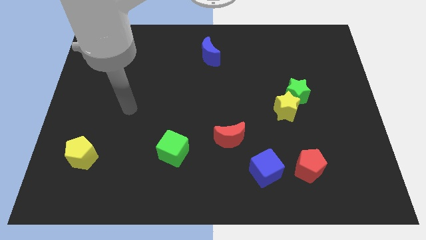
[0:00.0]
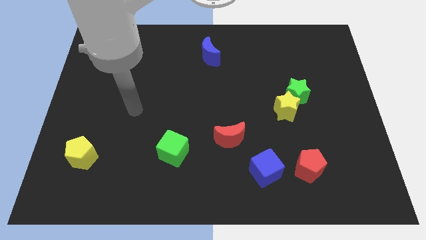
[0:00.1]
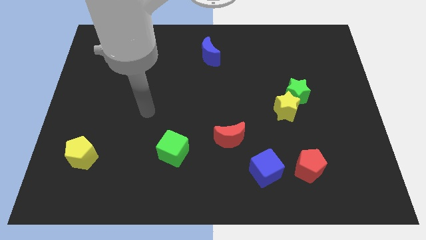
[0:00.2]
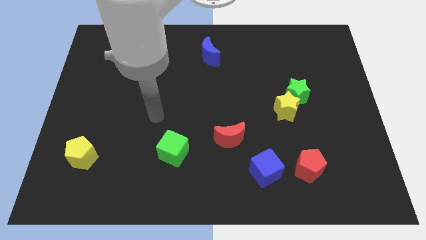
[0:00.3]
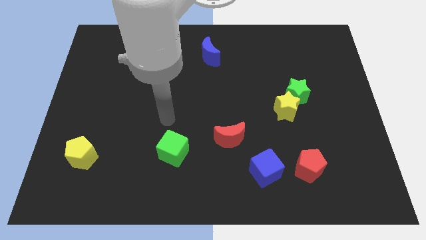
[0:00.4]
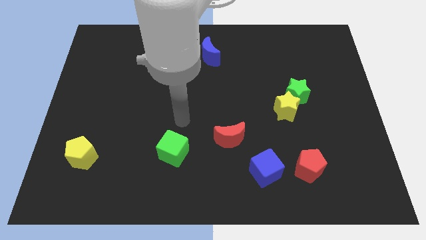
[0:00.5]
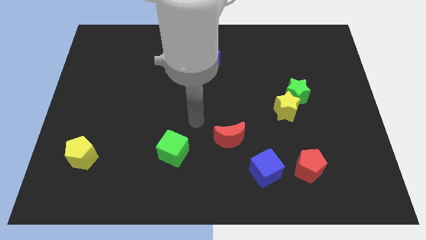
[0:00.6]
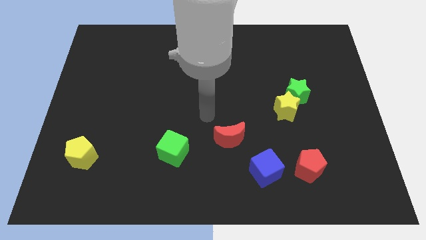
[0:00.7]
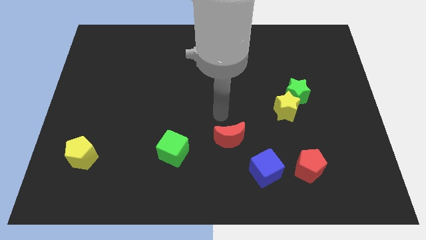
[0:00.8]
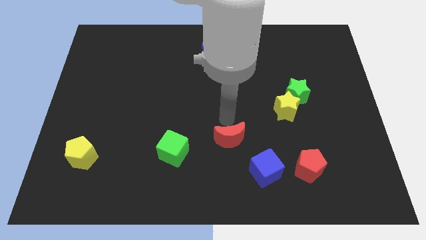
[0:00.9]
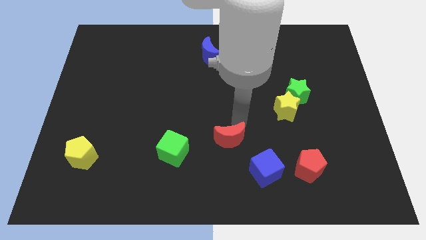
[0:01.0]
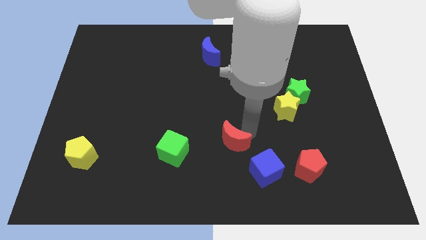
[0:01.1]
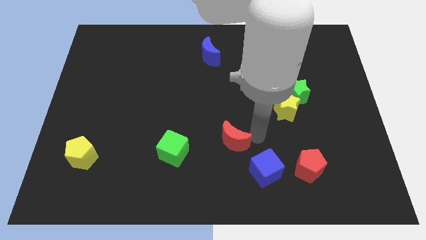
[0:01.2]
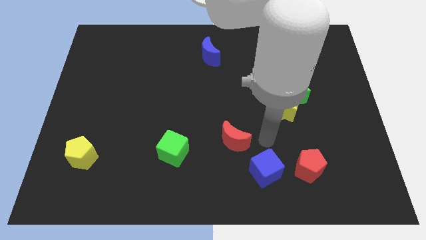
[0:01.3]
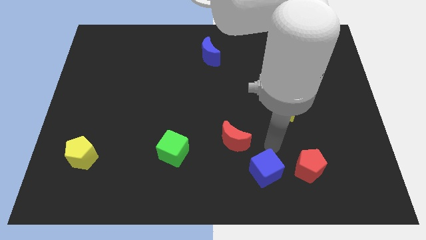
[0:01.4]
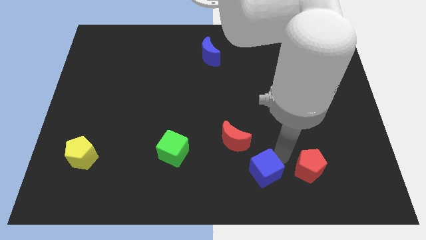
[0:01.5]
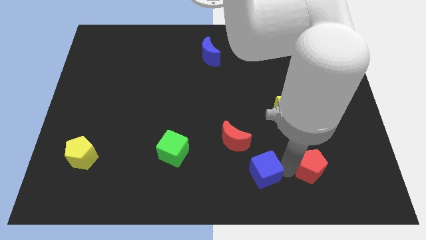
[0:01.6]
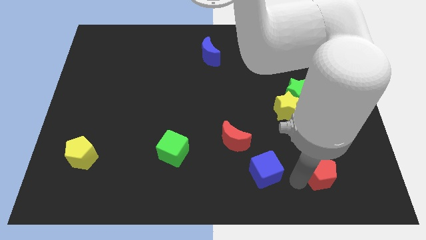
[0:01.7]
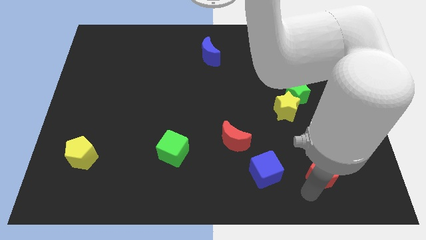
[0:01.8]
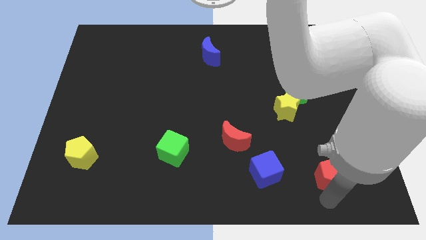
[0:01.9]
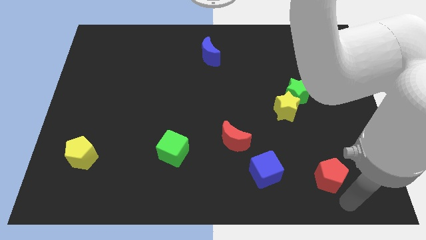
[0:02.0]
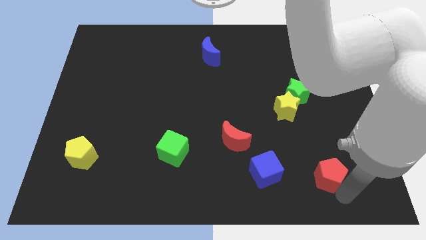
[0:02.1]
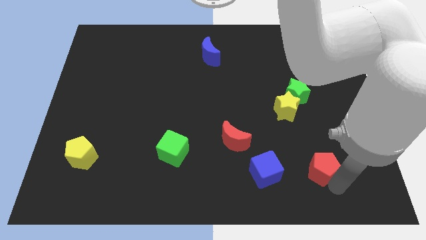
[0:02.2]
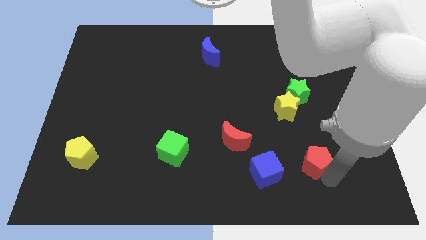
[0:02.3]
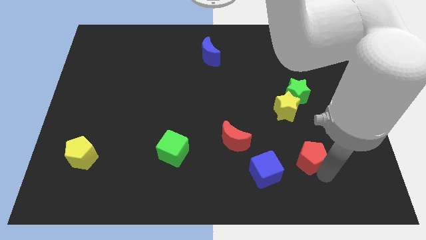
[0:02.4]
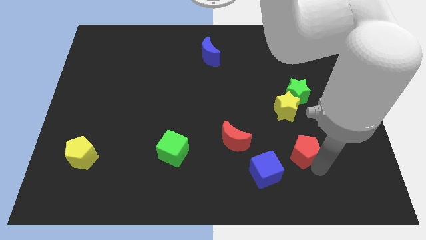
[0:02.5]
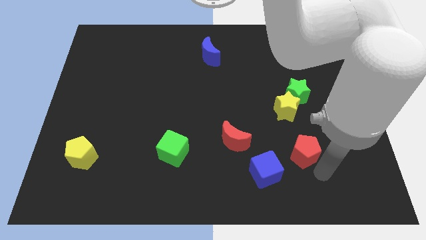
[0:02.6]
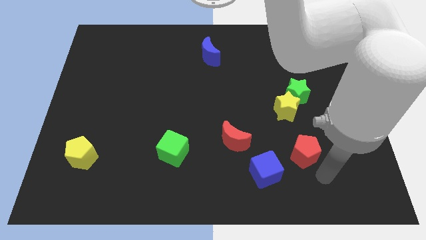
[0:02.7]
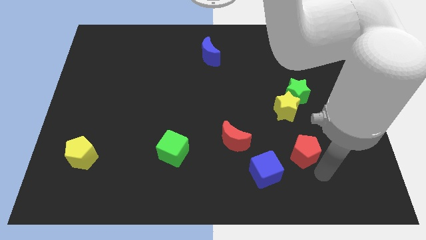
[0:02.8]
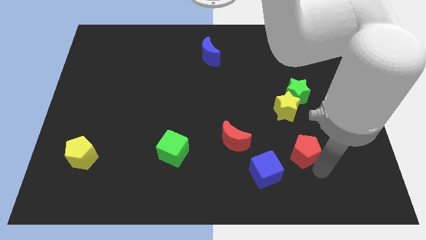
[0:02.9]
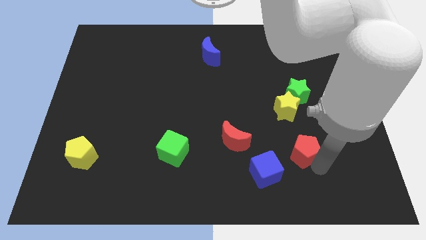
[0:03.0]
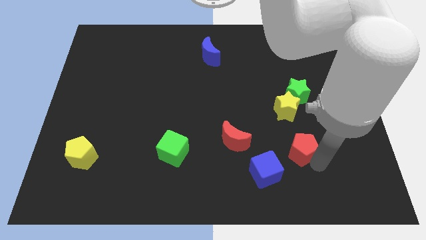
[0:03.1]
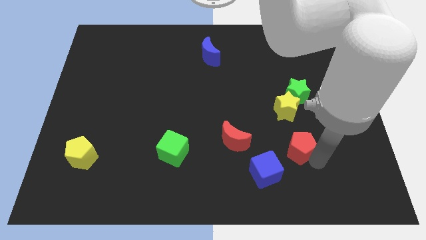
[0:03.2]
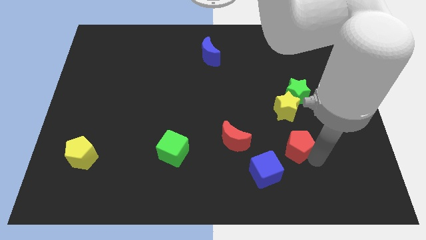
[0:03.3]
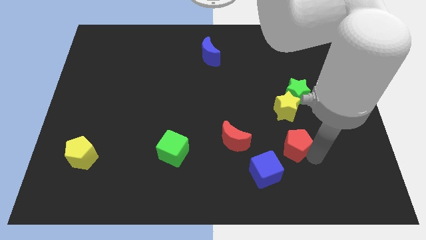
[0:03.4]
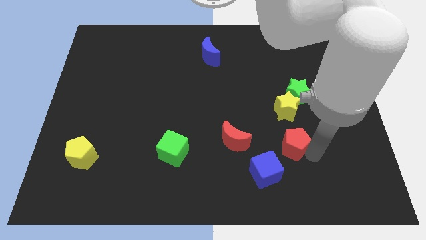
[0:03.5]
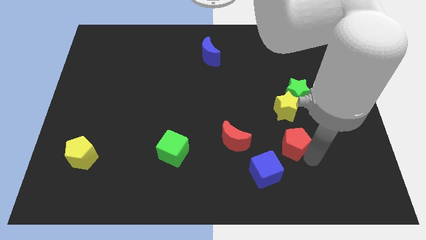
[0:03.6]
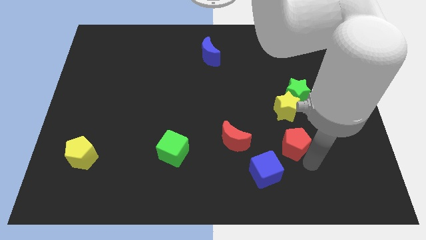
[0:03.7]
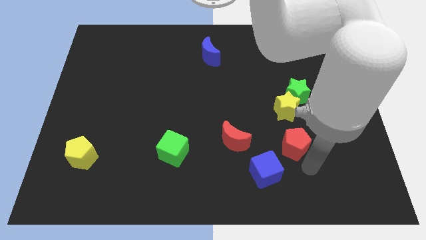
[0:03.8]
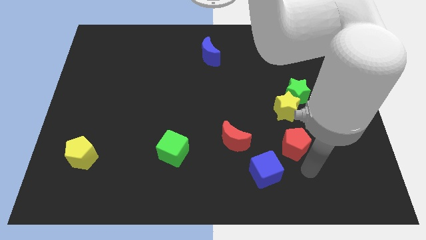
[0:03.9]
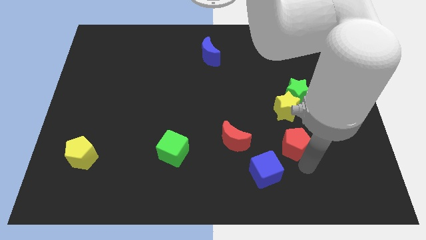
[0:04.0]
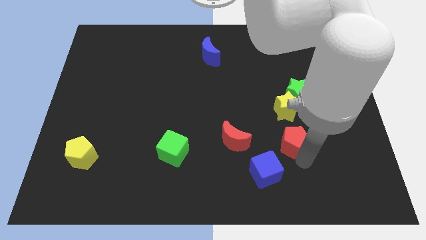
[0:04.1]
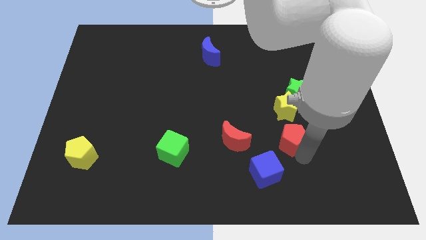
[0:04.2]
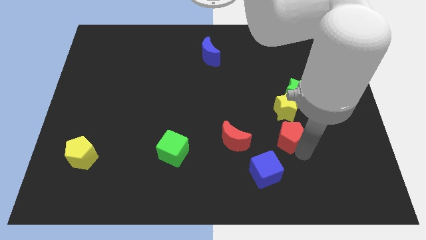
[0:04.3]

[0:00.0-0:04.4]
slide the red pentagon a little diagonally upwards and to the left

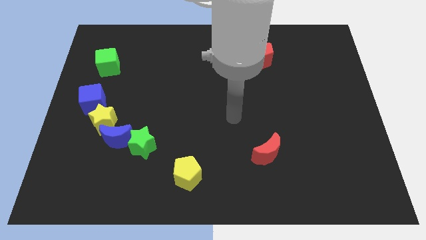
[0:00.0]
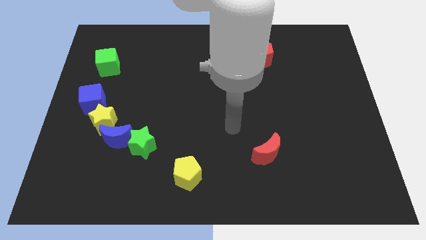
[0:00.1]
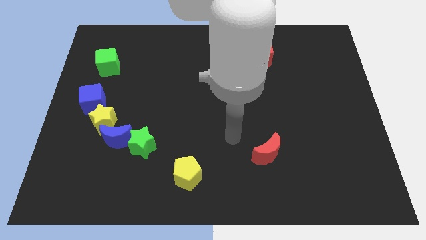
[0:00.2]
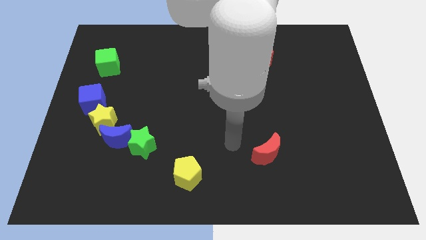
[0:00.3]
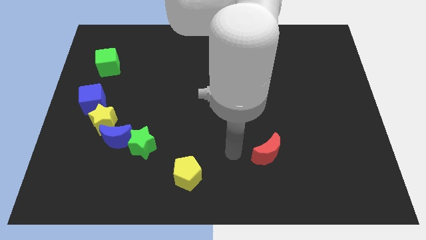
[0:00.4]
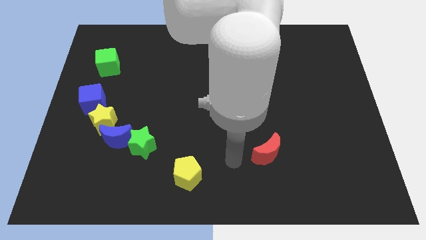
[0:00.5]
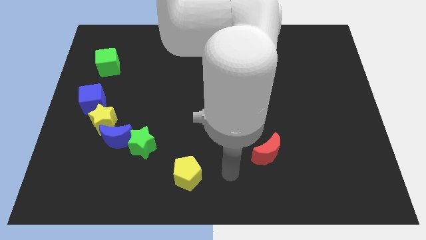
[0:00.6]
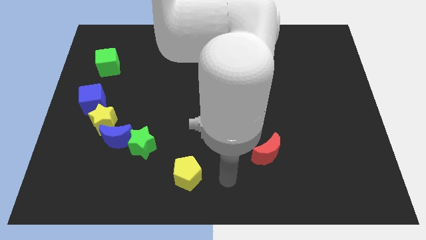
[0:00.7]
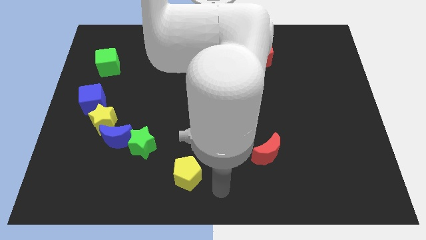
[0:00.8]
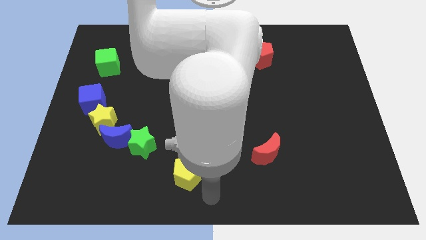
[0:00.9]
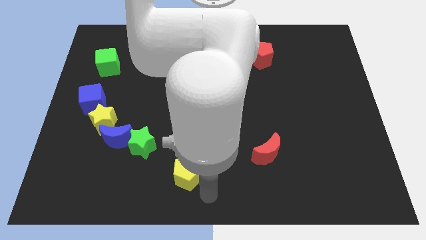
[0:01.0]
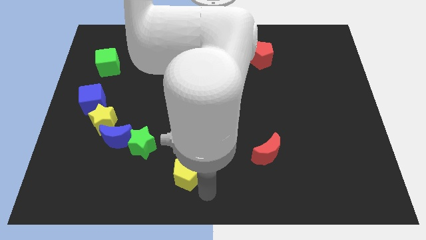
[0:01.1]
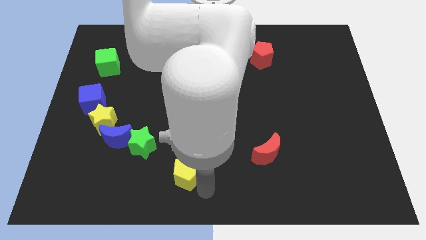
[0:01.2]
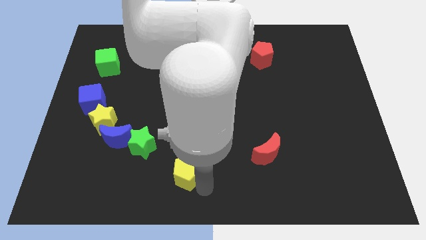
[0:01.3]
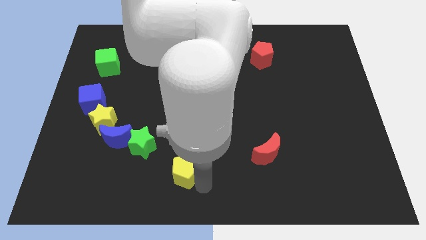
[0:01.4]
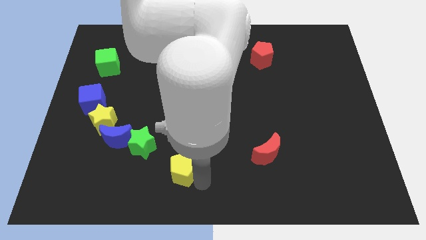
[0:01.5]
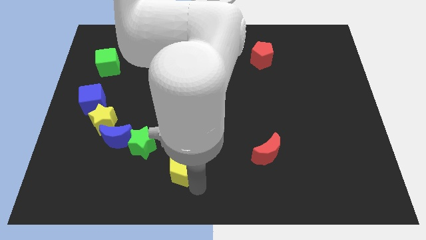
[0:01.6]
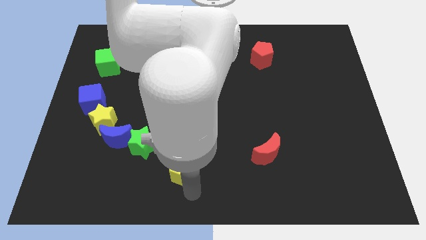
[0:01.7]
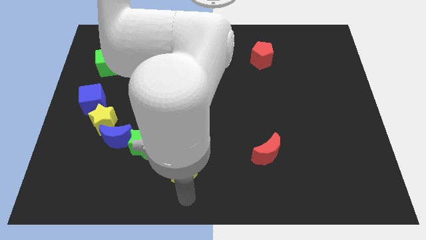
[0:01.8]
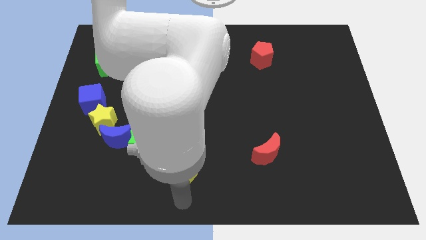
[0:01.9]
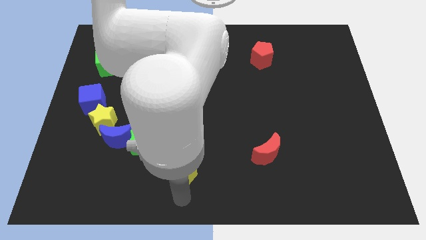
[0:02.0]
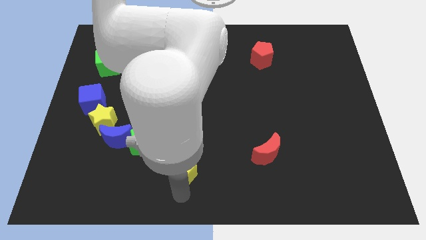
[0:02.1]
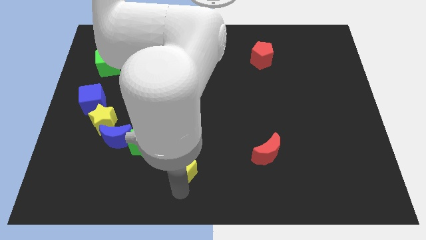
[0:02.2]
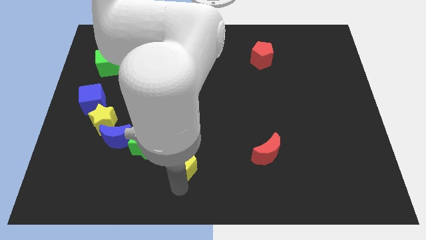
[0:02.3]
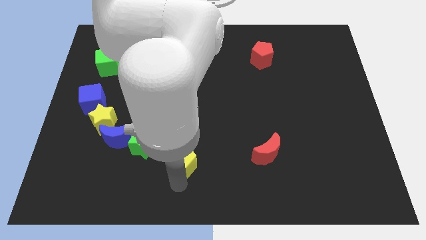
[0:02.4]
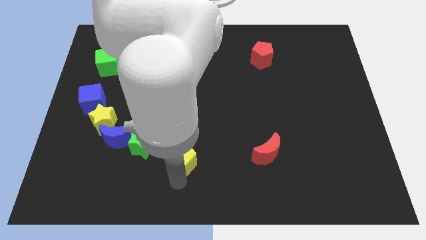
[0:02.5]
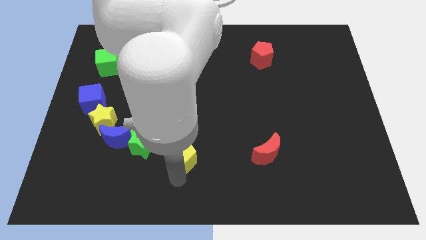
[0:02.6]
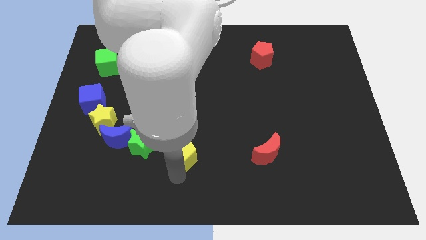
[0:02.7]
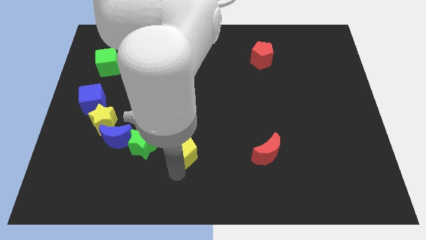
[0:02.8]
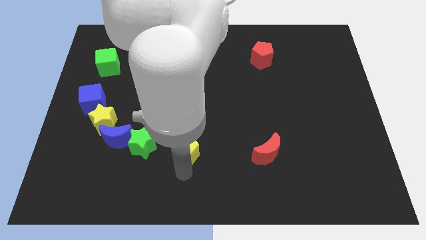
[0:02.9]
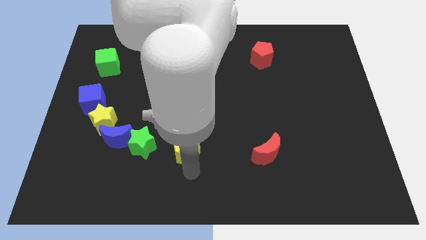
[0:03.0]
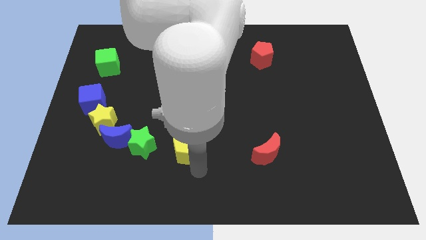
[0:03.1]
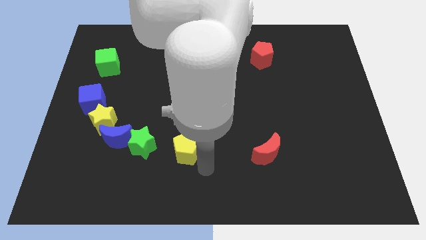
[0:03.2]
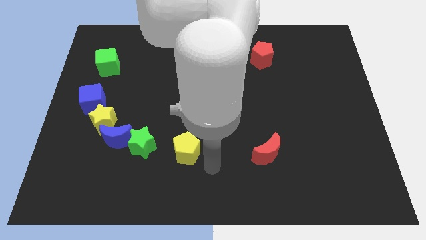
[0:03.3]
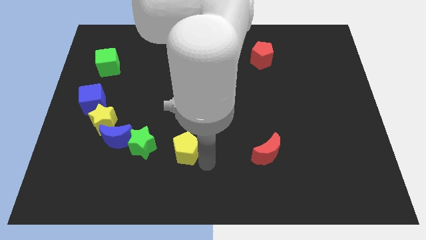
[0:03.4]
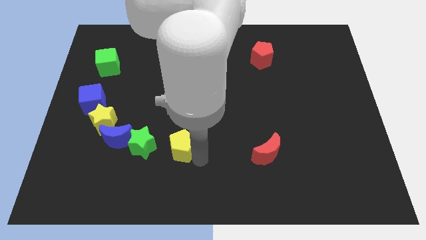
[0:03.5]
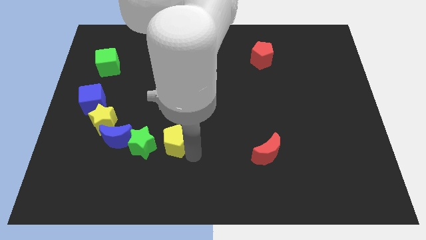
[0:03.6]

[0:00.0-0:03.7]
push the yellow pentagon upwards and then to the left slightly
